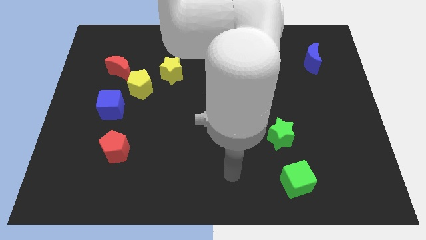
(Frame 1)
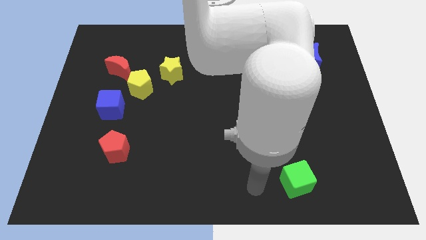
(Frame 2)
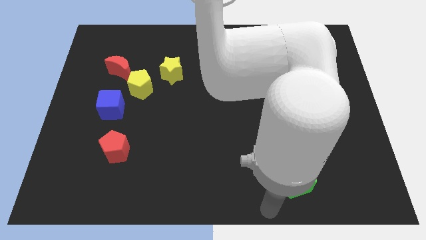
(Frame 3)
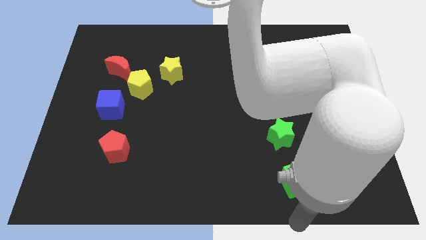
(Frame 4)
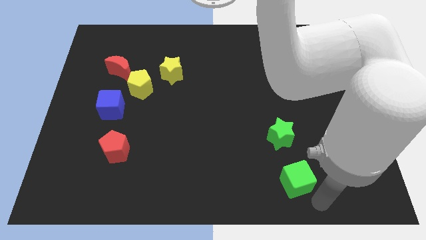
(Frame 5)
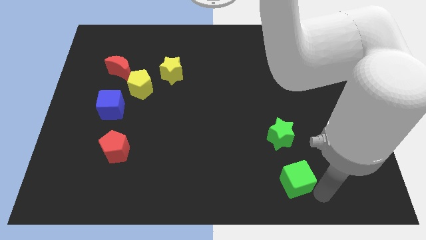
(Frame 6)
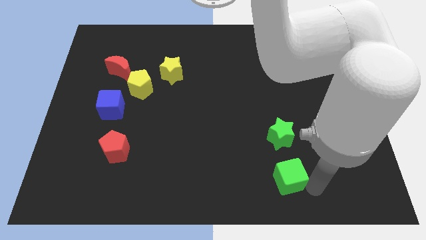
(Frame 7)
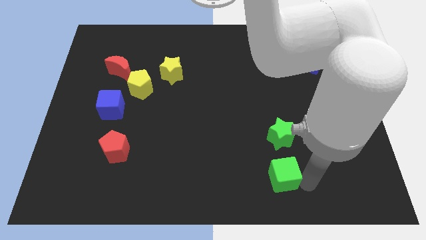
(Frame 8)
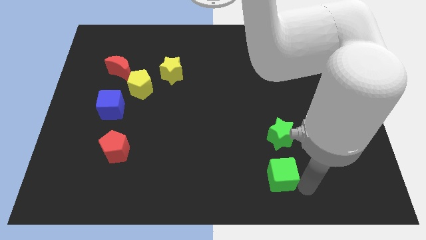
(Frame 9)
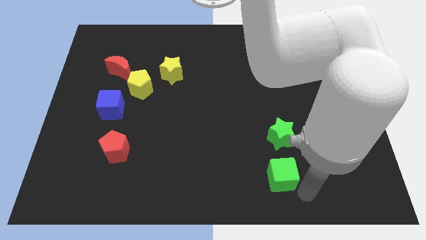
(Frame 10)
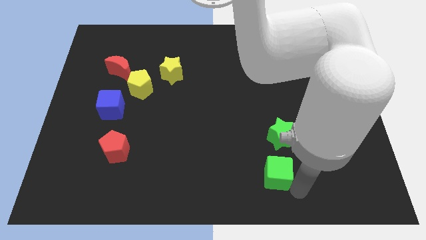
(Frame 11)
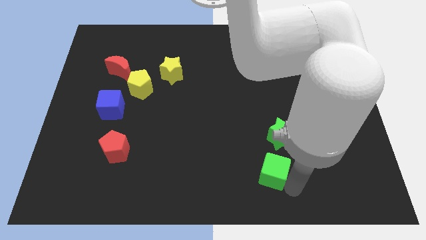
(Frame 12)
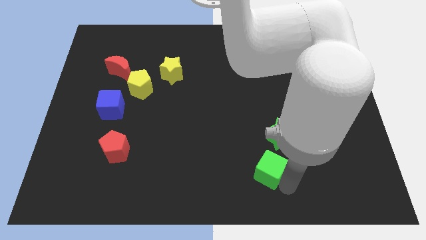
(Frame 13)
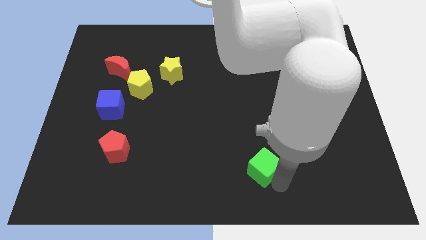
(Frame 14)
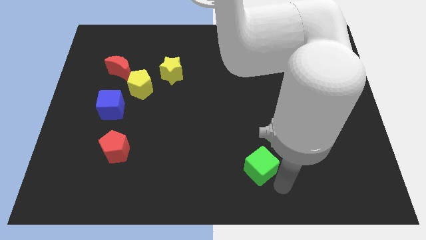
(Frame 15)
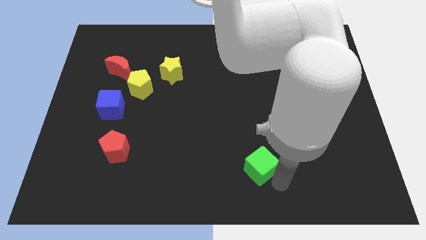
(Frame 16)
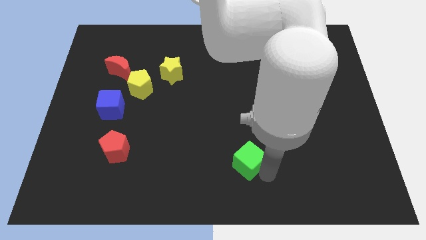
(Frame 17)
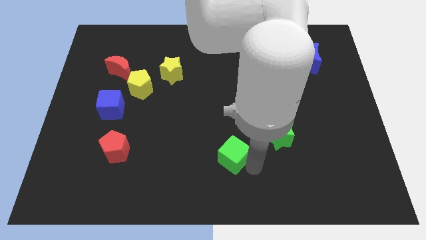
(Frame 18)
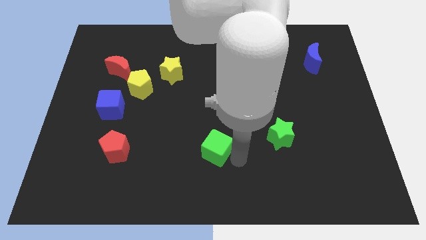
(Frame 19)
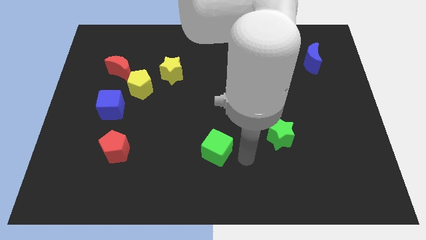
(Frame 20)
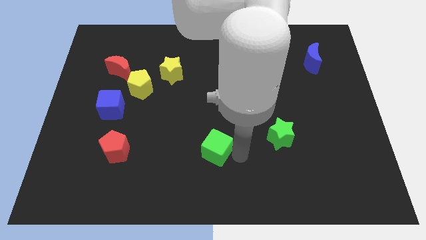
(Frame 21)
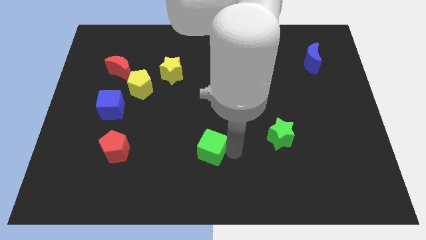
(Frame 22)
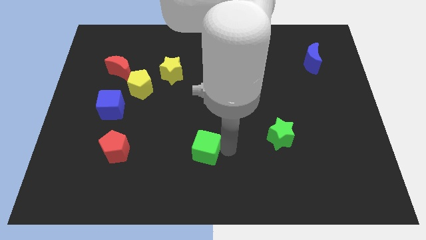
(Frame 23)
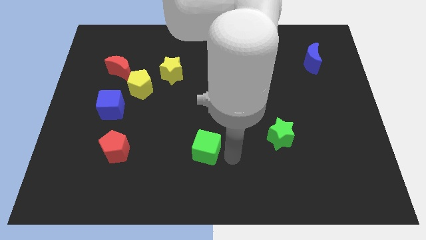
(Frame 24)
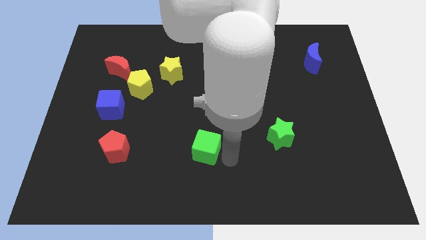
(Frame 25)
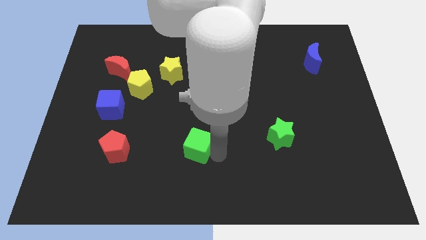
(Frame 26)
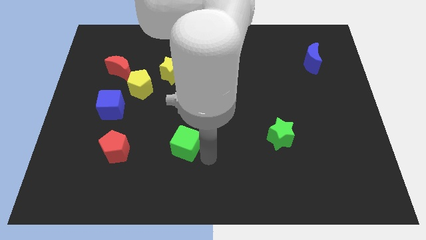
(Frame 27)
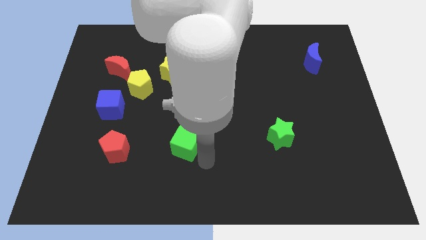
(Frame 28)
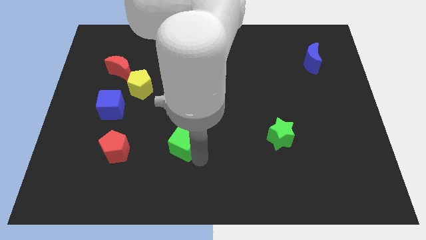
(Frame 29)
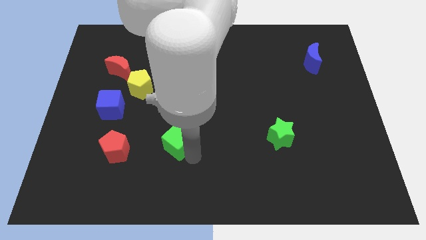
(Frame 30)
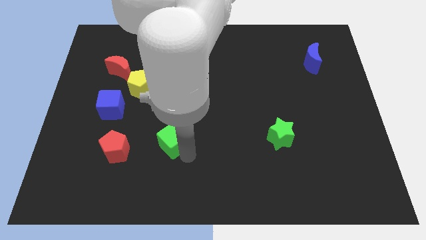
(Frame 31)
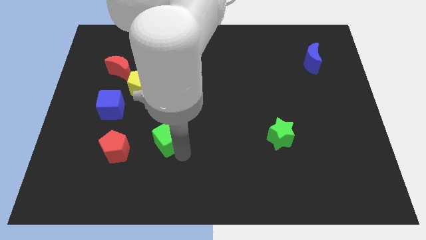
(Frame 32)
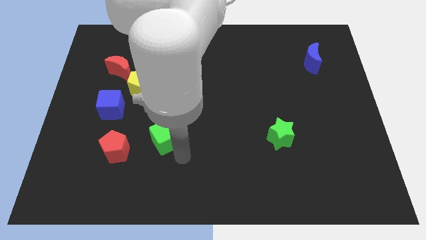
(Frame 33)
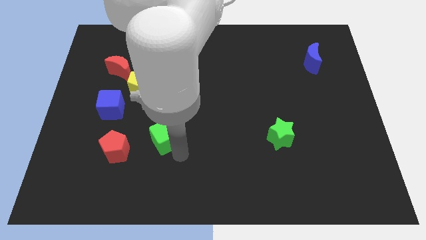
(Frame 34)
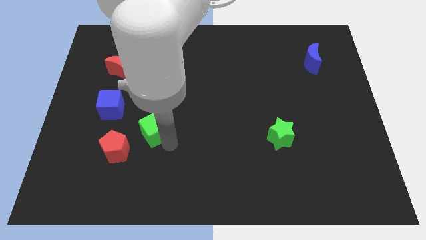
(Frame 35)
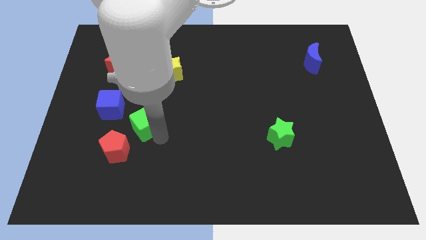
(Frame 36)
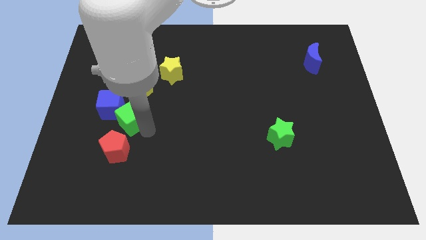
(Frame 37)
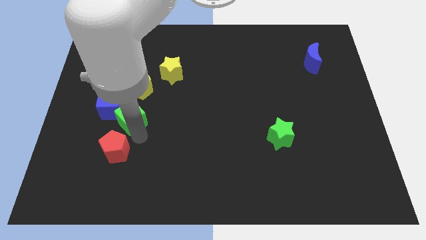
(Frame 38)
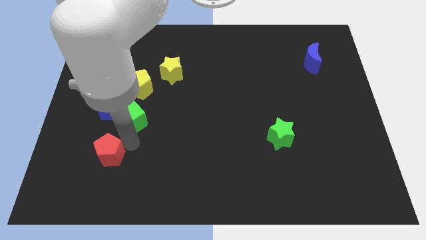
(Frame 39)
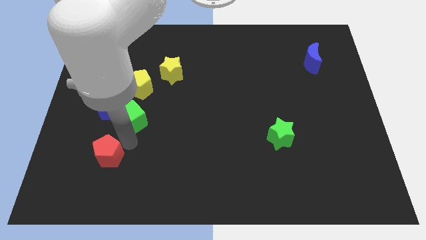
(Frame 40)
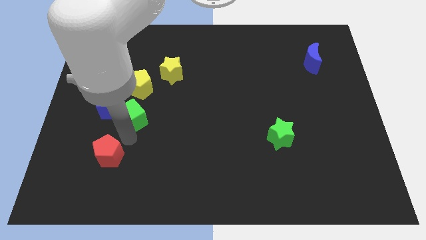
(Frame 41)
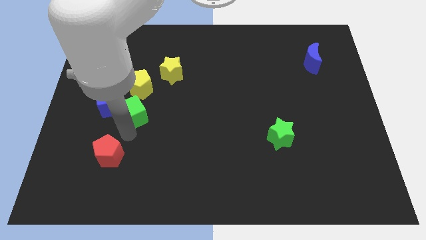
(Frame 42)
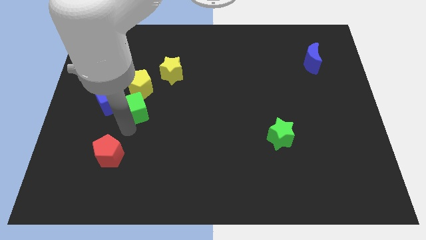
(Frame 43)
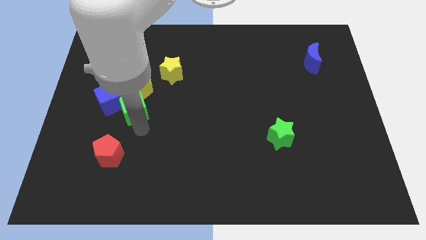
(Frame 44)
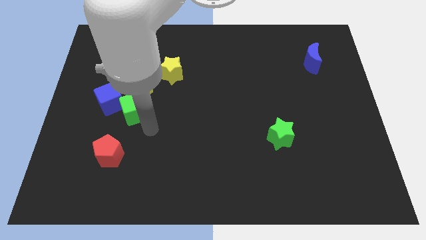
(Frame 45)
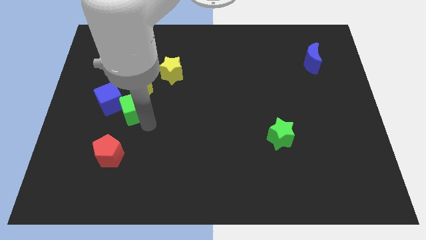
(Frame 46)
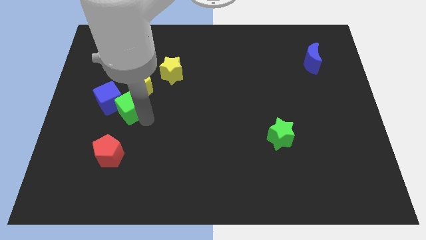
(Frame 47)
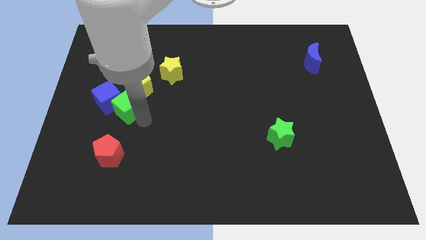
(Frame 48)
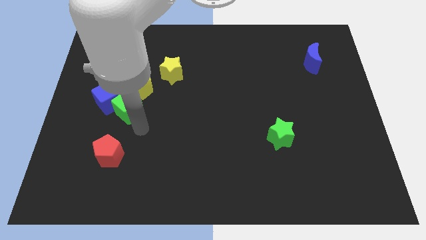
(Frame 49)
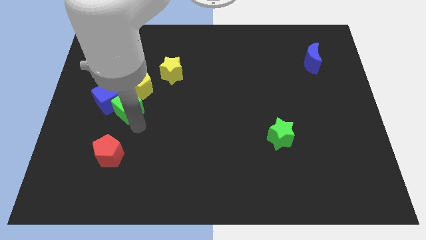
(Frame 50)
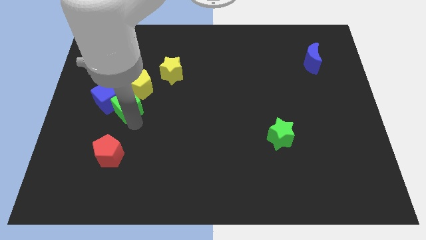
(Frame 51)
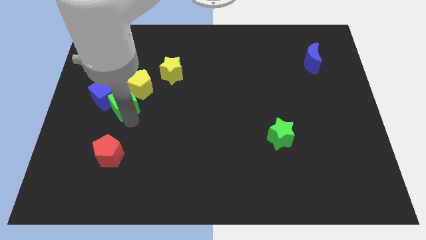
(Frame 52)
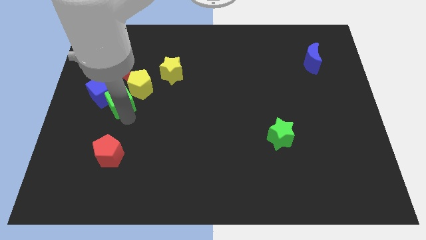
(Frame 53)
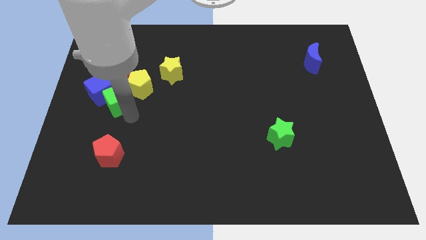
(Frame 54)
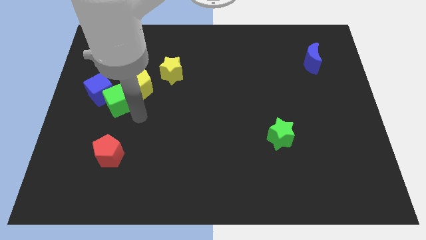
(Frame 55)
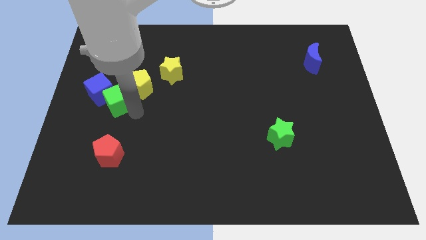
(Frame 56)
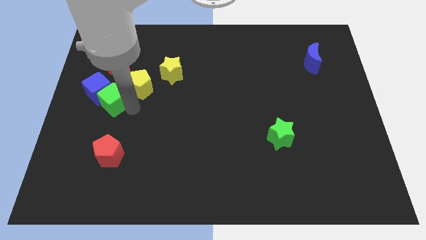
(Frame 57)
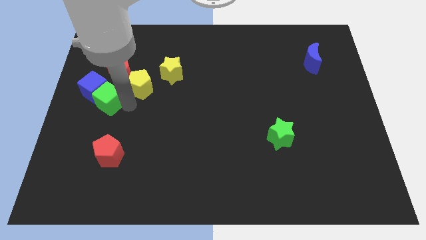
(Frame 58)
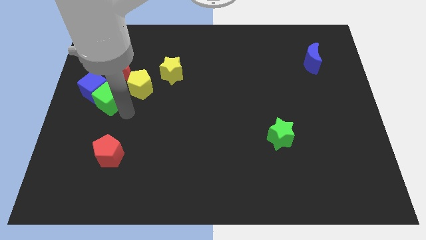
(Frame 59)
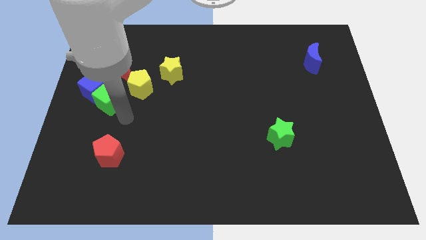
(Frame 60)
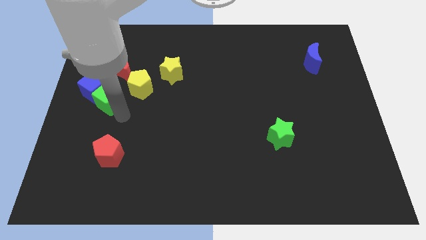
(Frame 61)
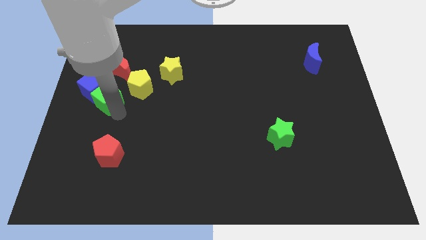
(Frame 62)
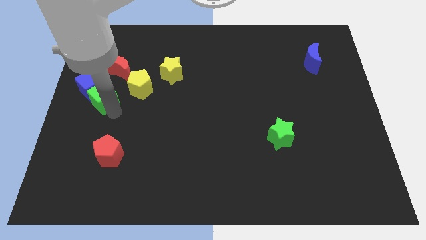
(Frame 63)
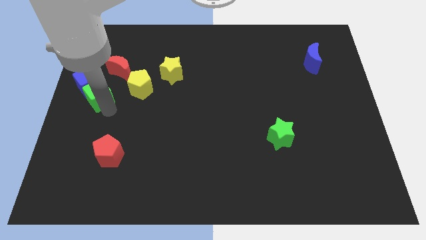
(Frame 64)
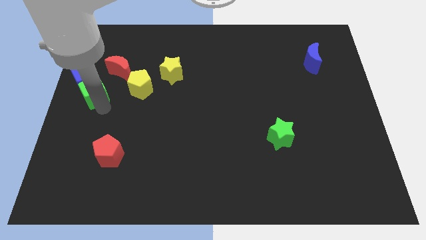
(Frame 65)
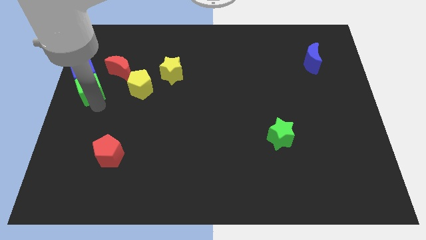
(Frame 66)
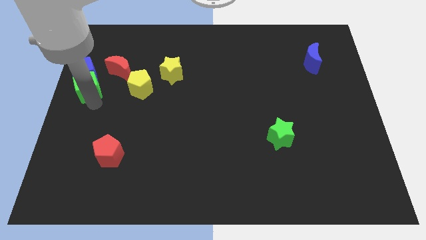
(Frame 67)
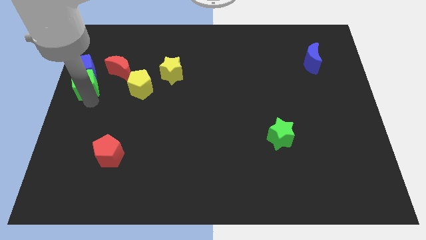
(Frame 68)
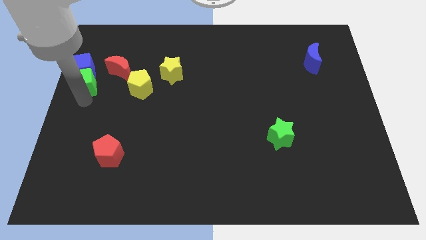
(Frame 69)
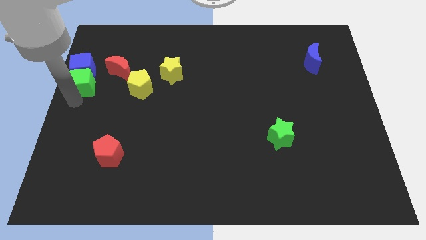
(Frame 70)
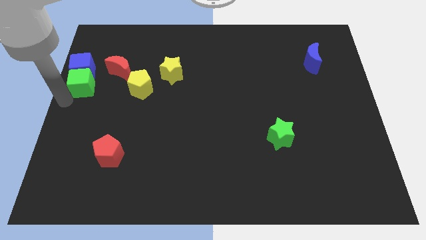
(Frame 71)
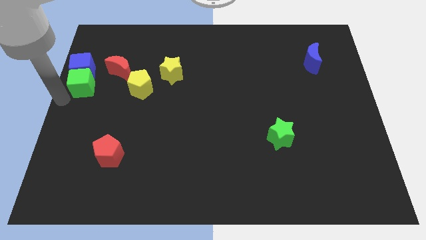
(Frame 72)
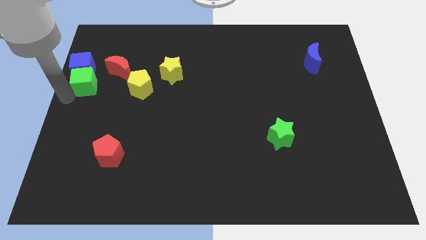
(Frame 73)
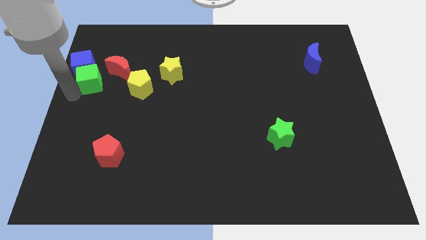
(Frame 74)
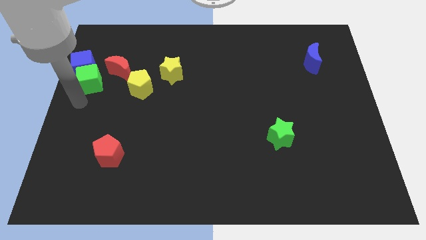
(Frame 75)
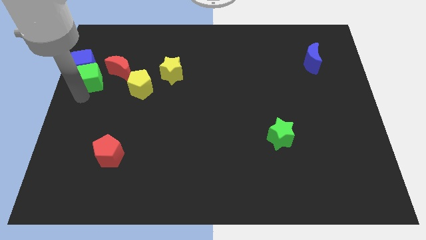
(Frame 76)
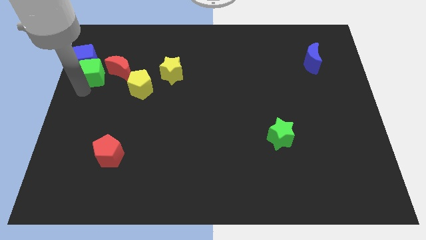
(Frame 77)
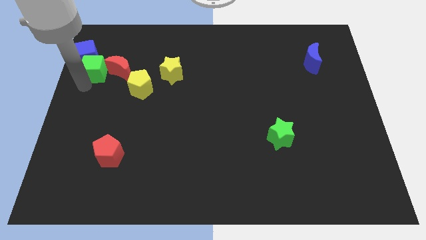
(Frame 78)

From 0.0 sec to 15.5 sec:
slide the green cube to the top left of the red moon
